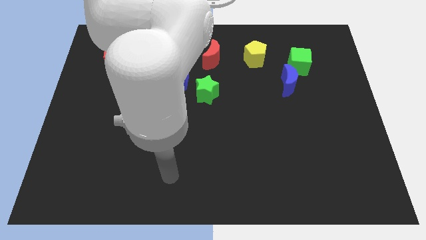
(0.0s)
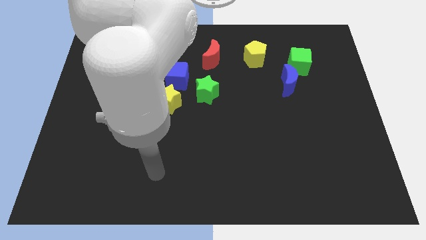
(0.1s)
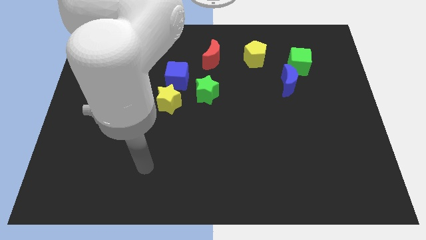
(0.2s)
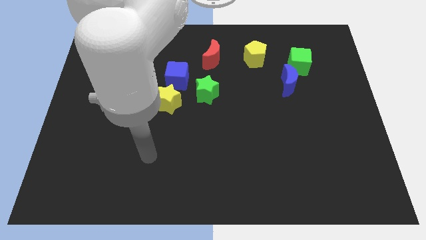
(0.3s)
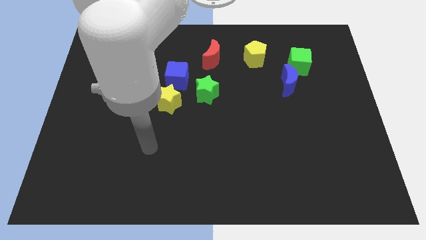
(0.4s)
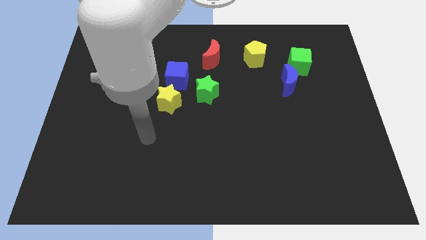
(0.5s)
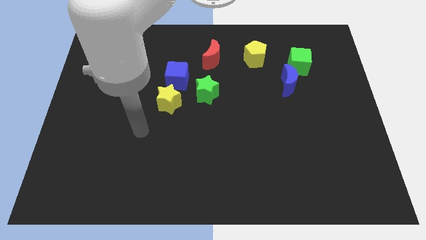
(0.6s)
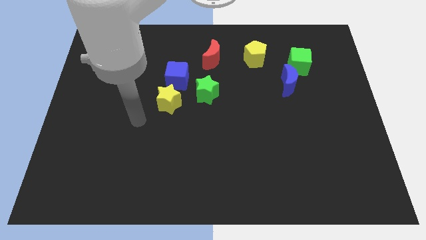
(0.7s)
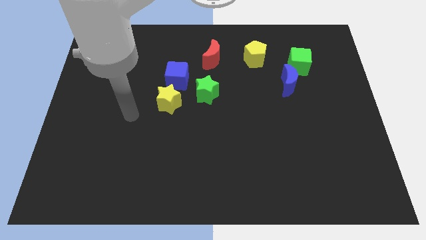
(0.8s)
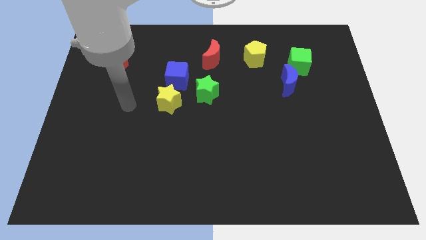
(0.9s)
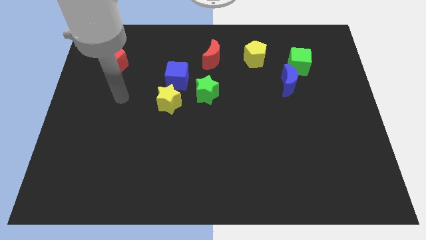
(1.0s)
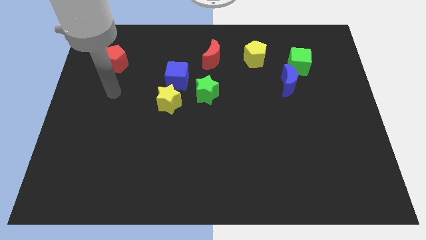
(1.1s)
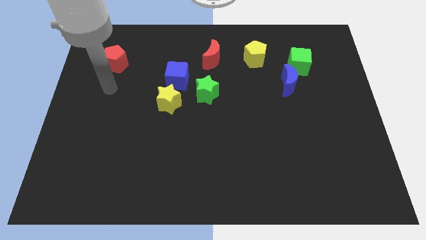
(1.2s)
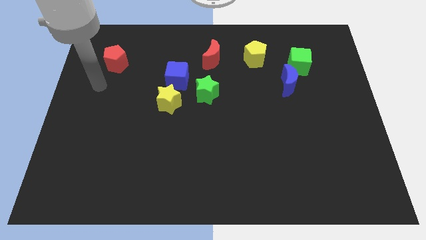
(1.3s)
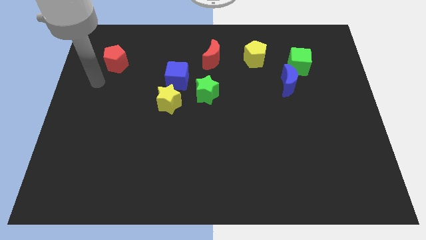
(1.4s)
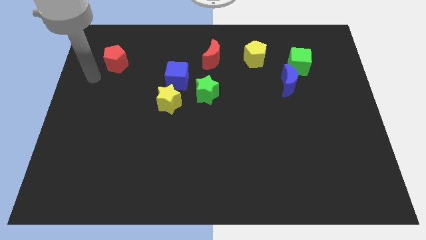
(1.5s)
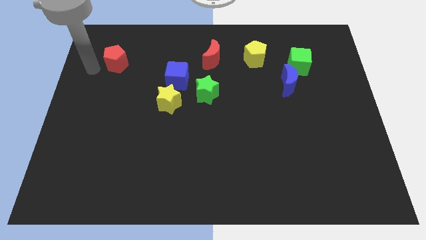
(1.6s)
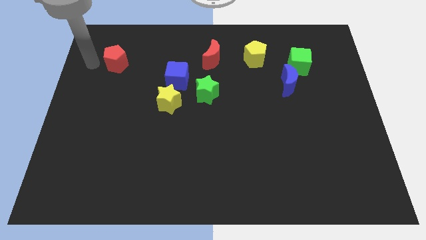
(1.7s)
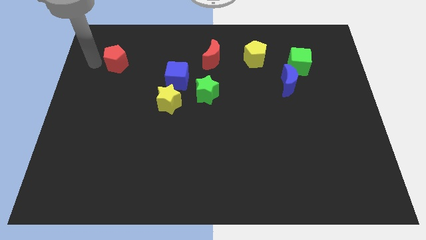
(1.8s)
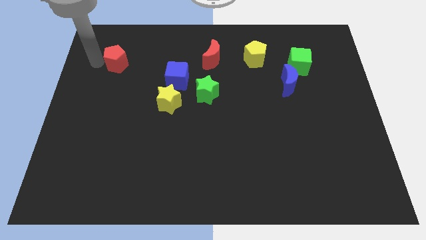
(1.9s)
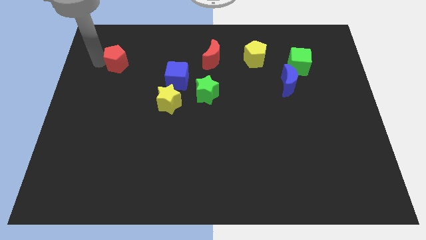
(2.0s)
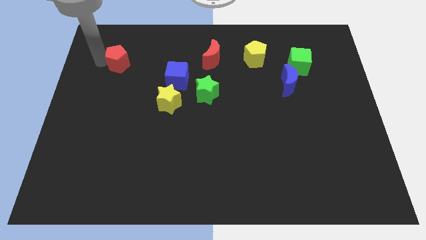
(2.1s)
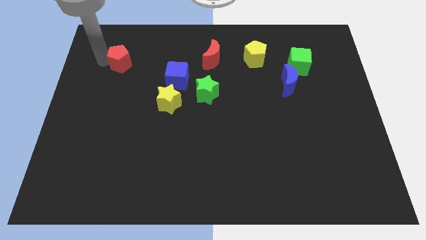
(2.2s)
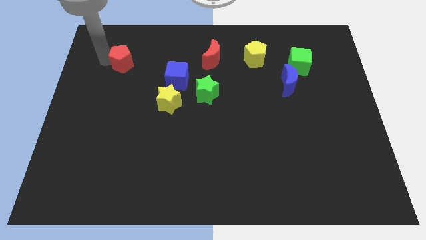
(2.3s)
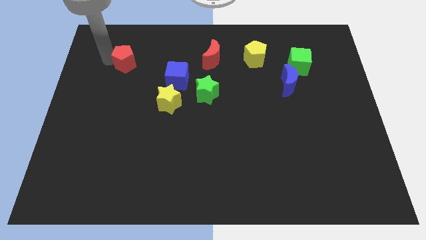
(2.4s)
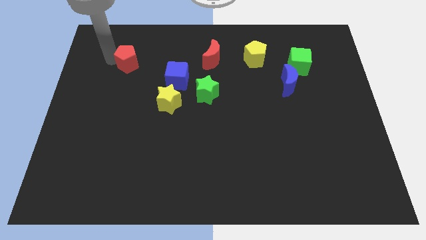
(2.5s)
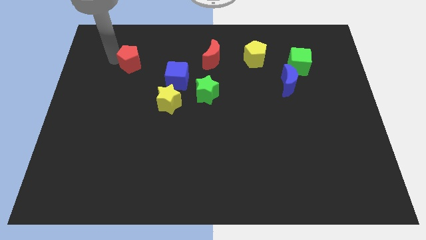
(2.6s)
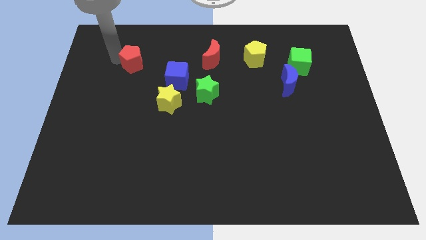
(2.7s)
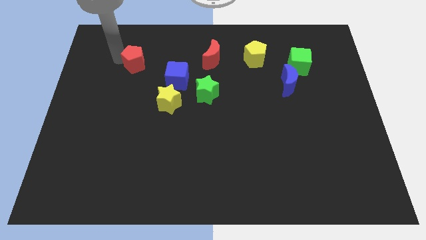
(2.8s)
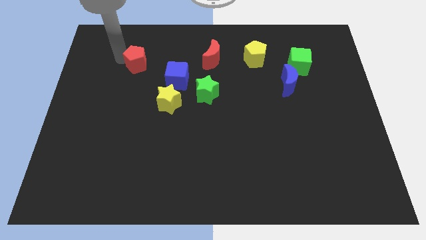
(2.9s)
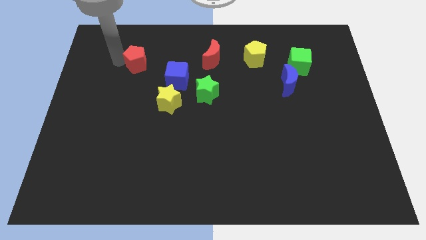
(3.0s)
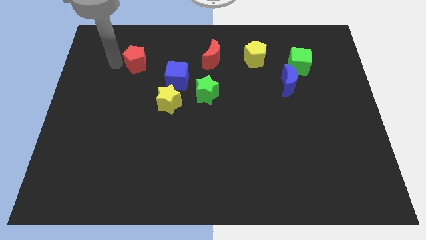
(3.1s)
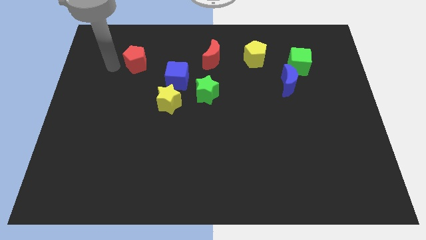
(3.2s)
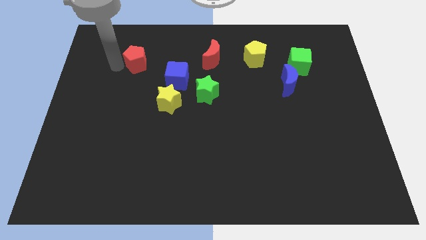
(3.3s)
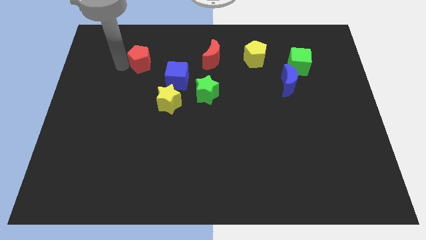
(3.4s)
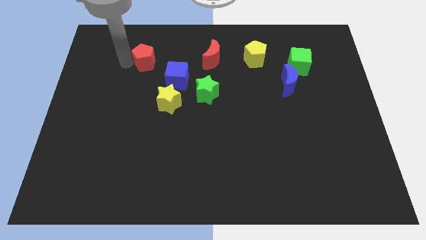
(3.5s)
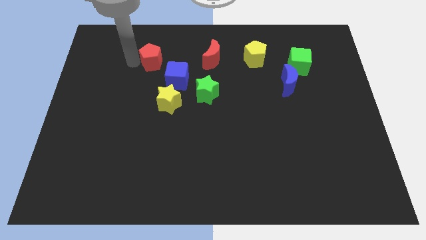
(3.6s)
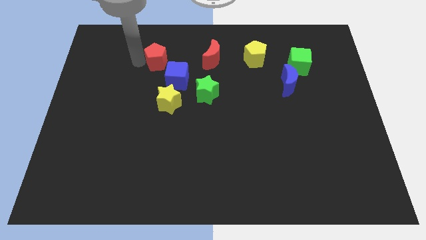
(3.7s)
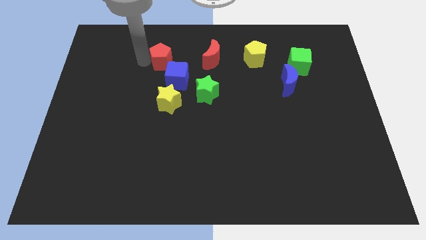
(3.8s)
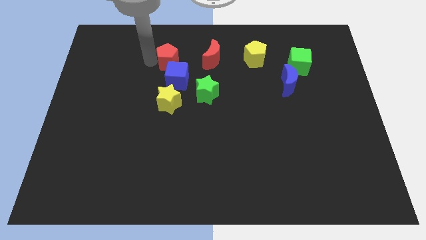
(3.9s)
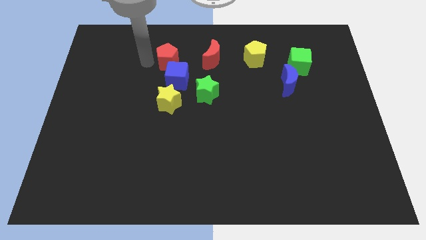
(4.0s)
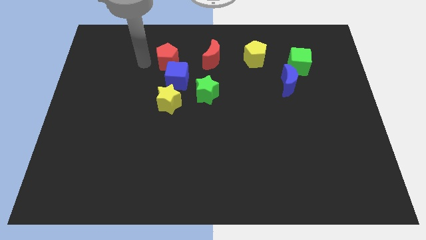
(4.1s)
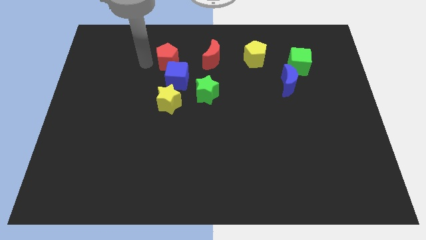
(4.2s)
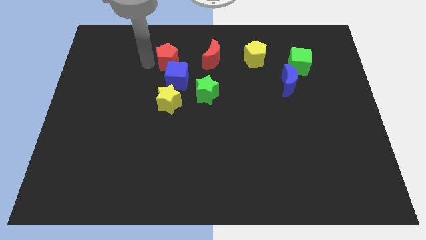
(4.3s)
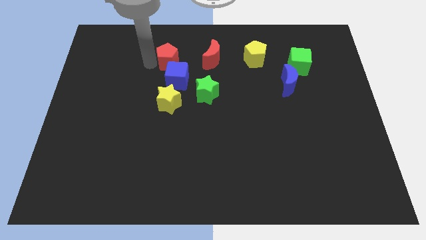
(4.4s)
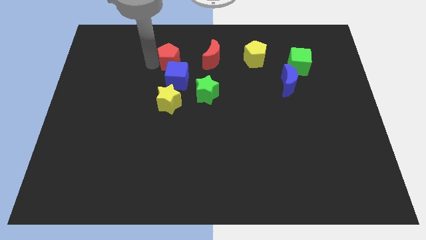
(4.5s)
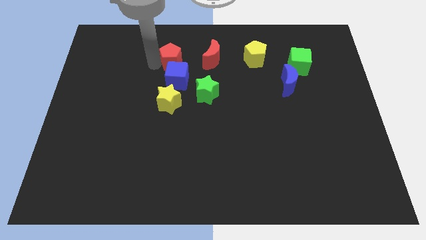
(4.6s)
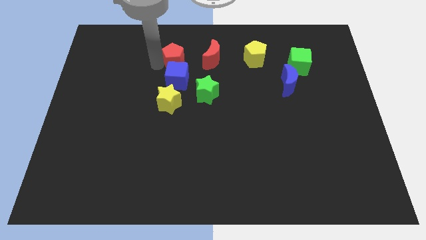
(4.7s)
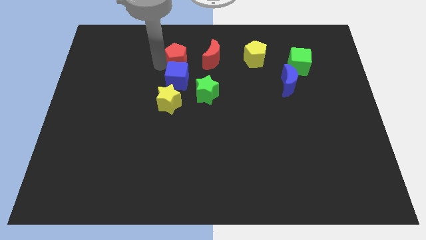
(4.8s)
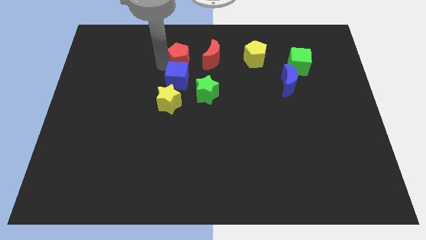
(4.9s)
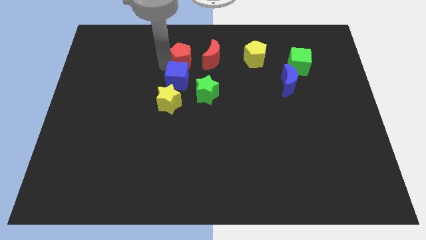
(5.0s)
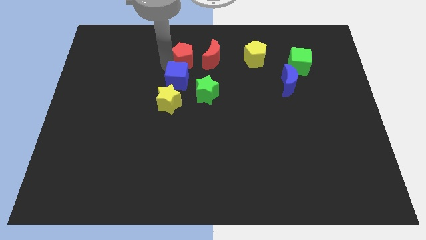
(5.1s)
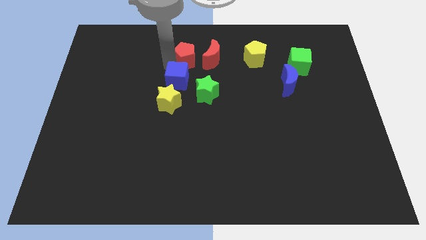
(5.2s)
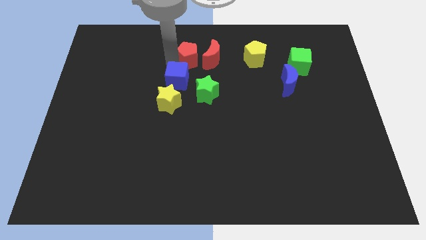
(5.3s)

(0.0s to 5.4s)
move the red pentagon close to the red moon

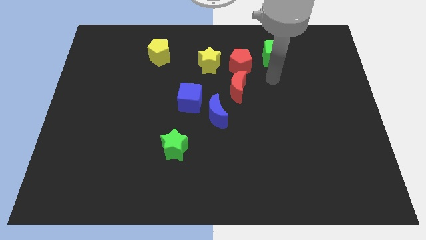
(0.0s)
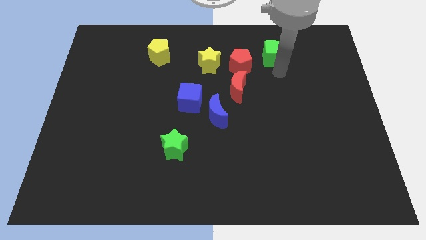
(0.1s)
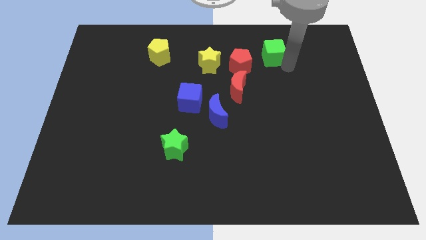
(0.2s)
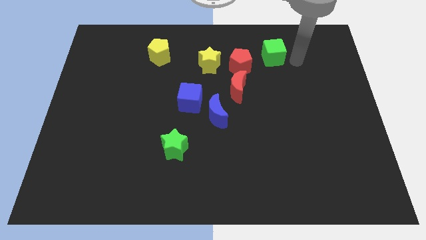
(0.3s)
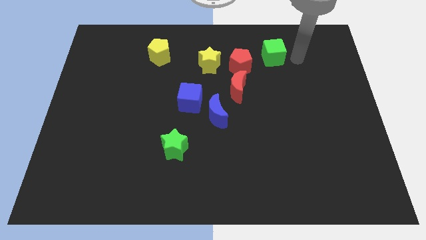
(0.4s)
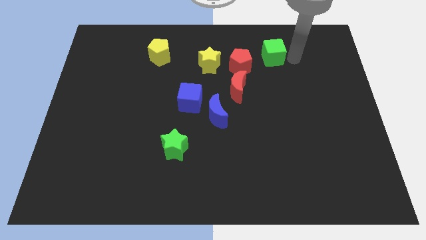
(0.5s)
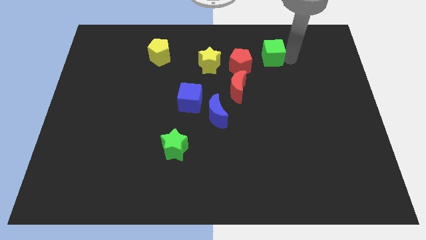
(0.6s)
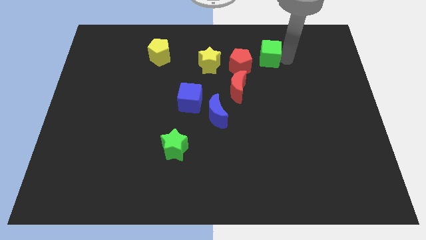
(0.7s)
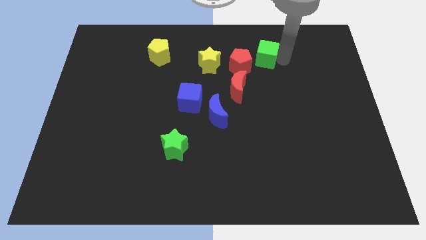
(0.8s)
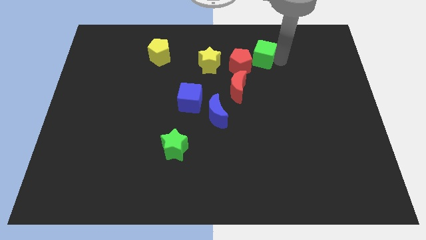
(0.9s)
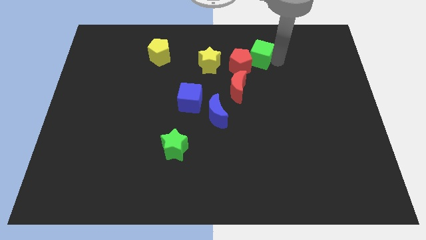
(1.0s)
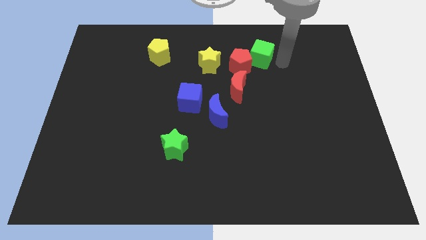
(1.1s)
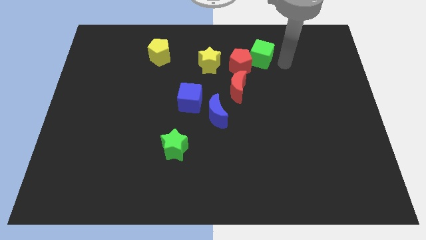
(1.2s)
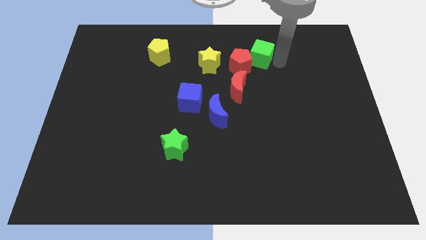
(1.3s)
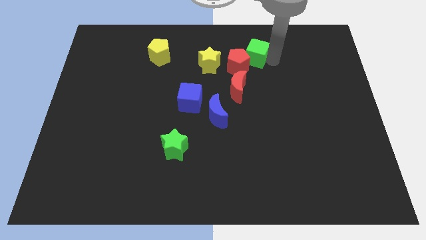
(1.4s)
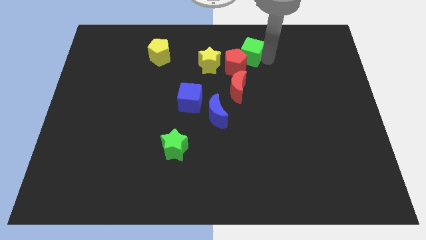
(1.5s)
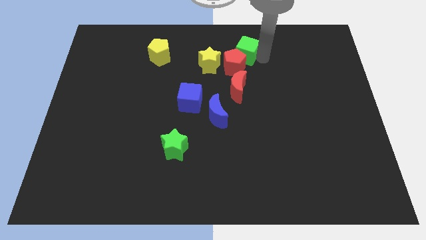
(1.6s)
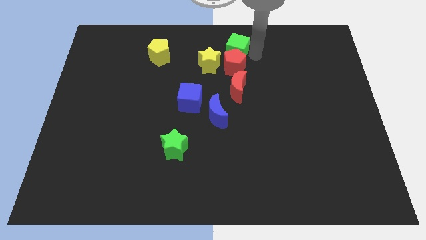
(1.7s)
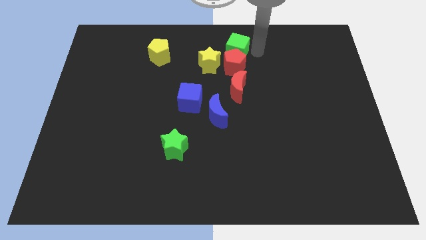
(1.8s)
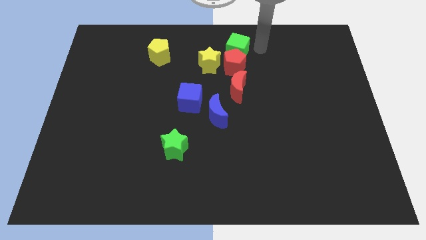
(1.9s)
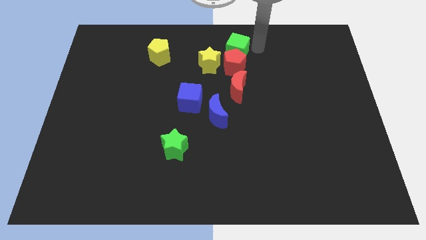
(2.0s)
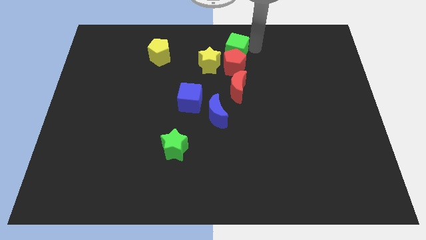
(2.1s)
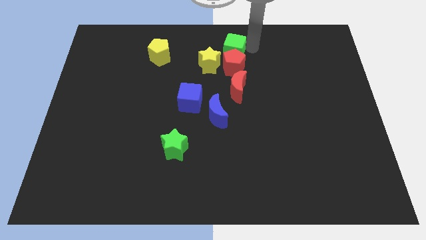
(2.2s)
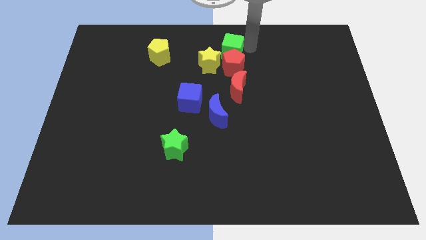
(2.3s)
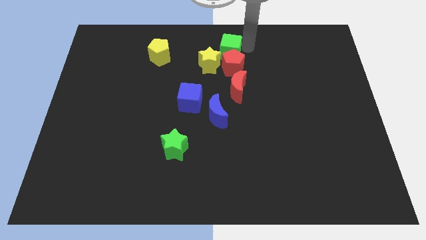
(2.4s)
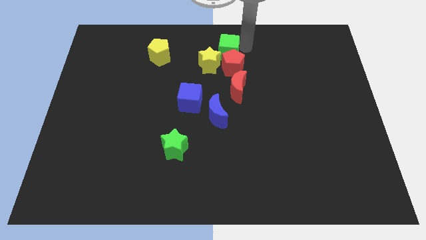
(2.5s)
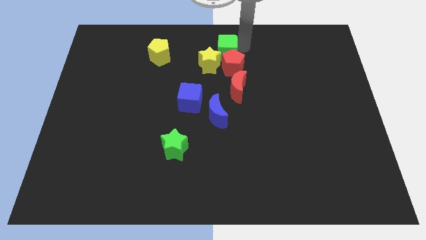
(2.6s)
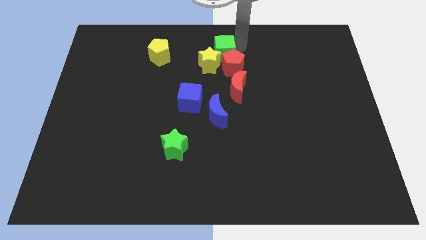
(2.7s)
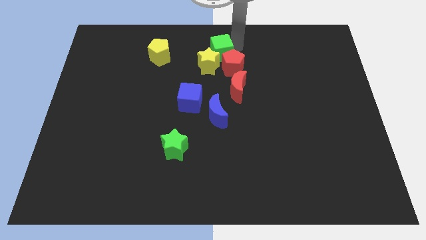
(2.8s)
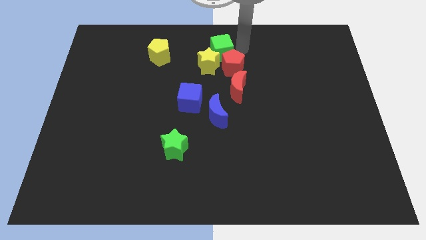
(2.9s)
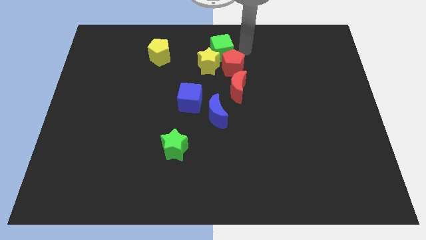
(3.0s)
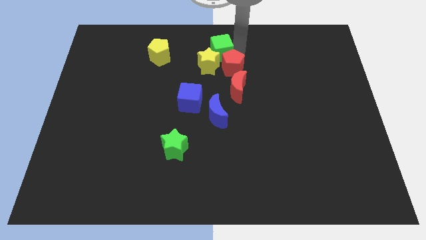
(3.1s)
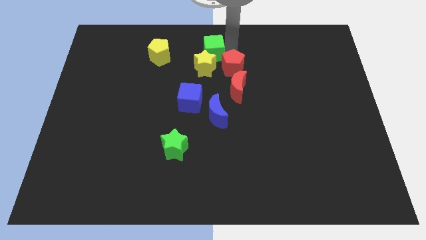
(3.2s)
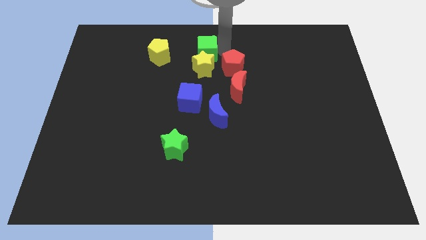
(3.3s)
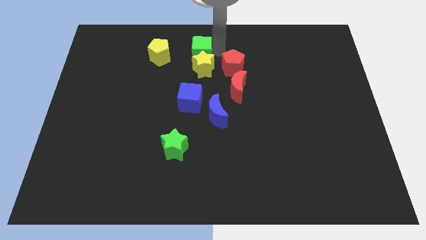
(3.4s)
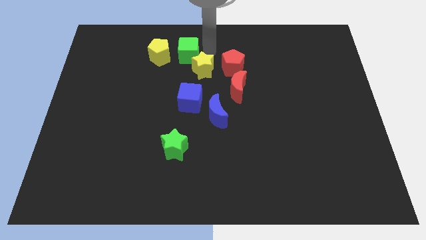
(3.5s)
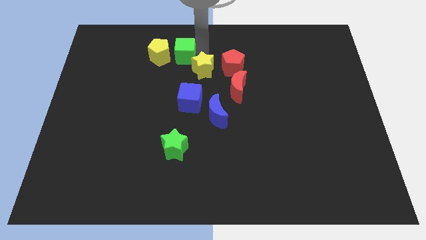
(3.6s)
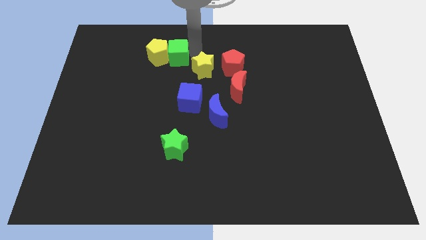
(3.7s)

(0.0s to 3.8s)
slide the green cube next to the yellow pentagon
